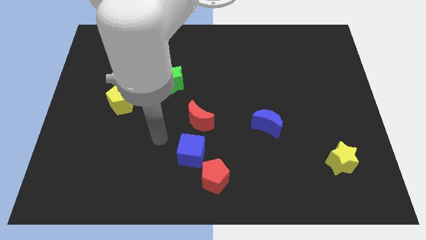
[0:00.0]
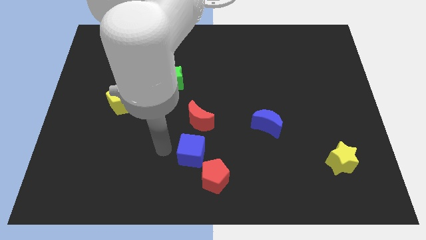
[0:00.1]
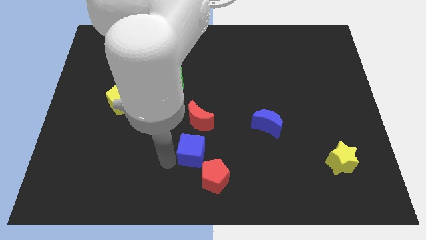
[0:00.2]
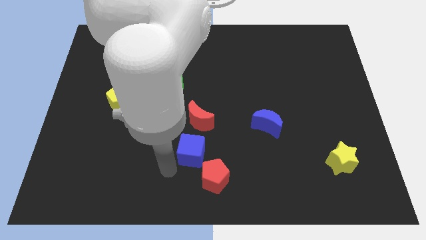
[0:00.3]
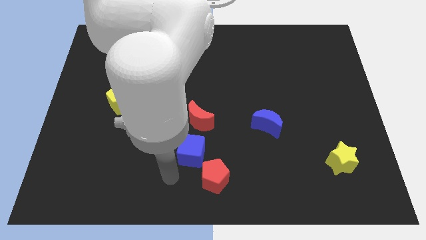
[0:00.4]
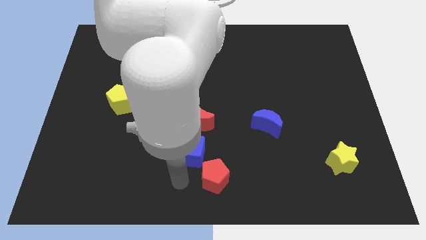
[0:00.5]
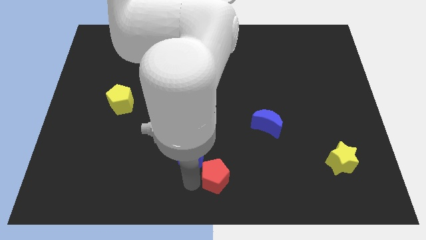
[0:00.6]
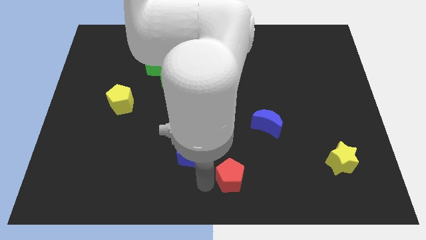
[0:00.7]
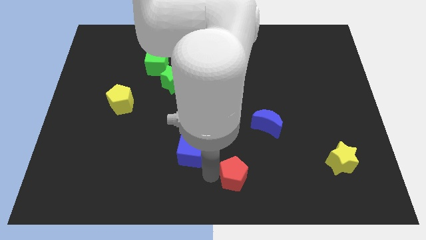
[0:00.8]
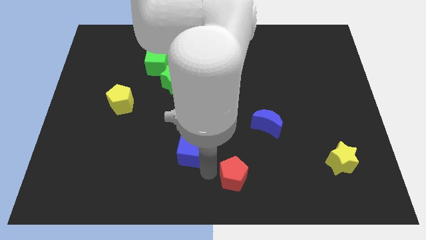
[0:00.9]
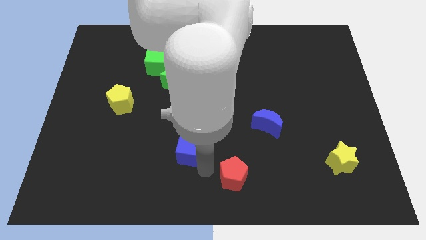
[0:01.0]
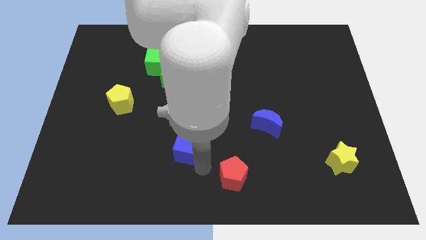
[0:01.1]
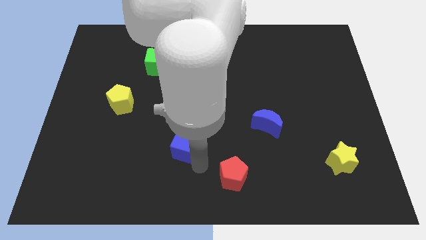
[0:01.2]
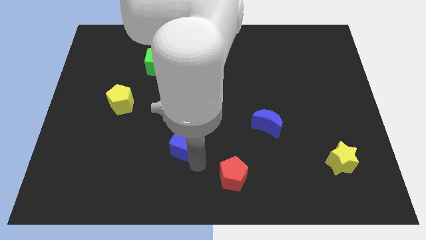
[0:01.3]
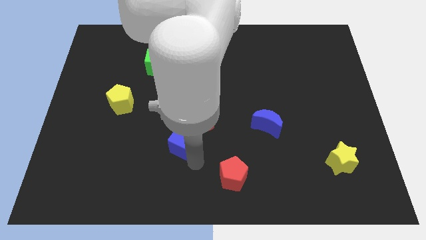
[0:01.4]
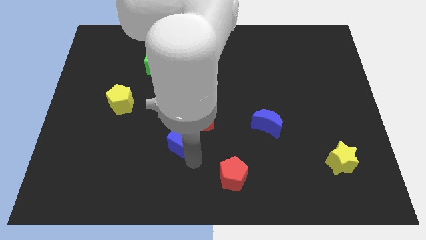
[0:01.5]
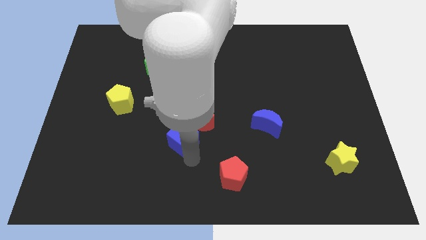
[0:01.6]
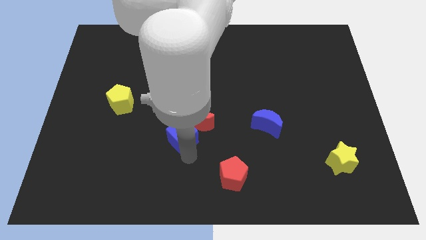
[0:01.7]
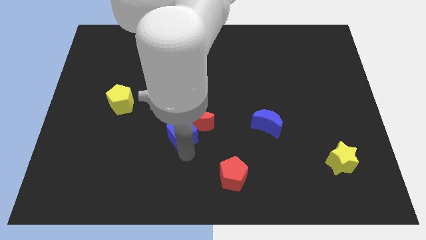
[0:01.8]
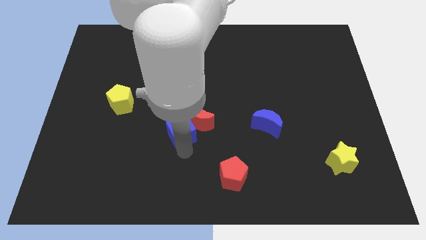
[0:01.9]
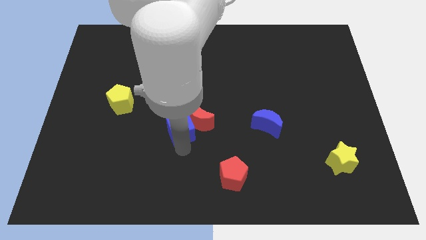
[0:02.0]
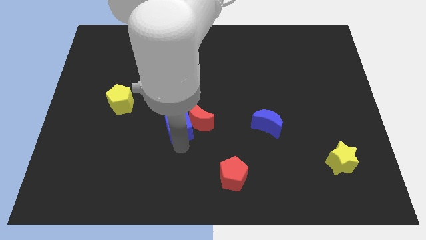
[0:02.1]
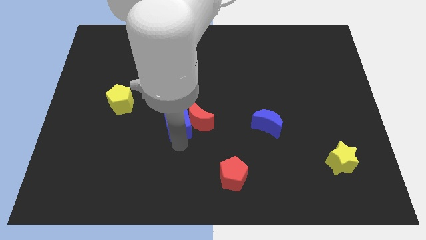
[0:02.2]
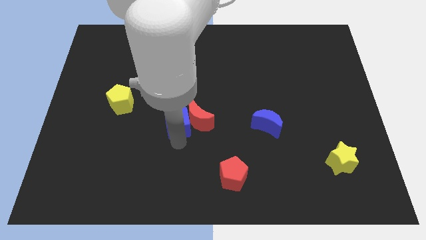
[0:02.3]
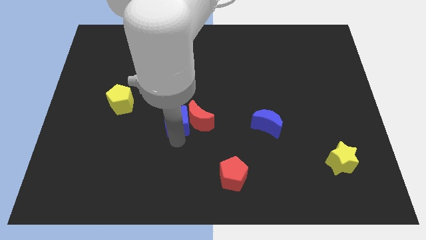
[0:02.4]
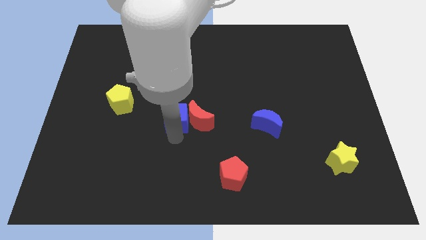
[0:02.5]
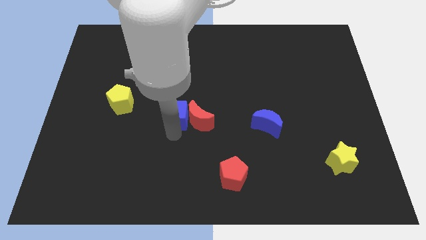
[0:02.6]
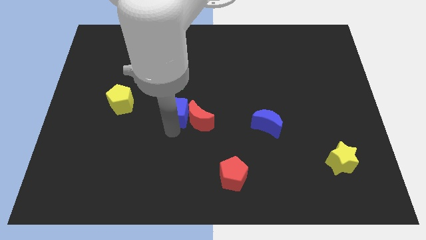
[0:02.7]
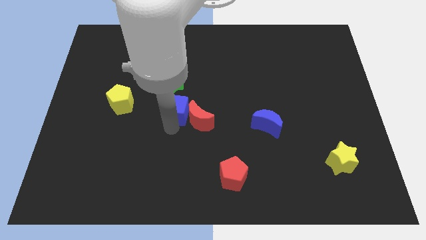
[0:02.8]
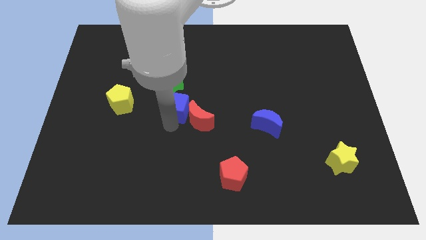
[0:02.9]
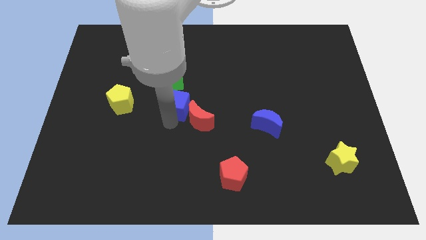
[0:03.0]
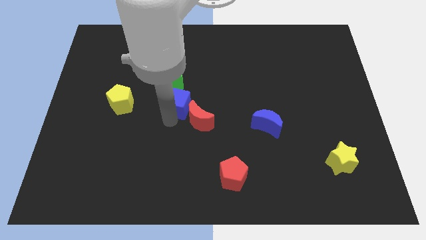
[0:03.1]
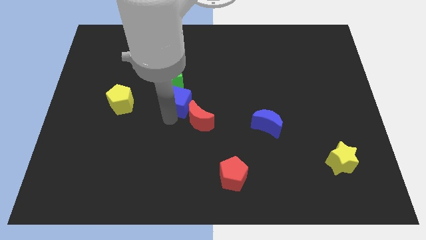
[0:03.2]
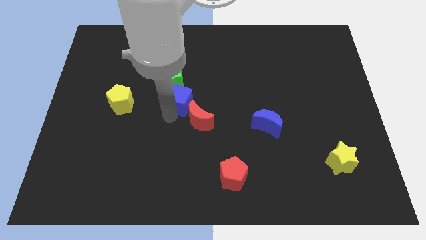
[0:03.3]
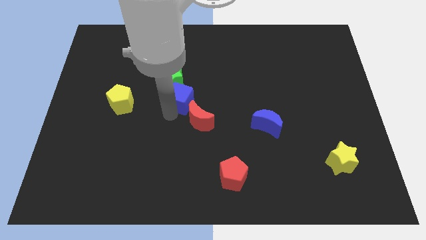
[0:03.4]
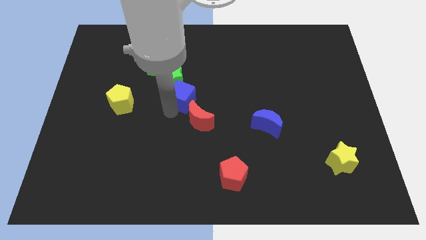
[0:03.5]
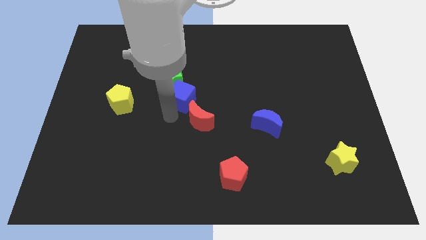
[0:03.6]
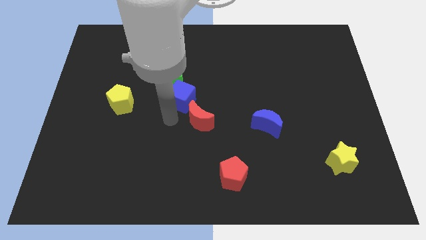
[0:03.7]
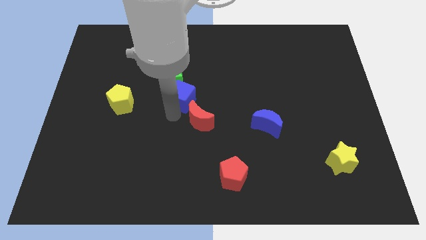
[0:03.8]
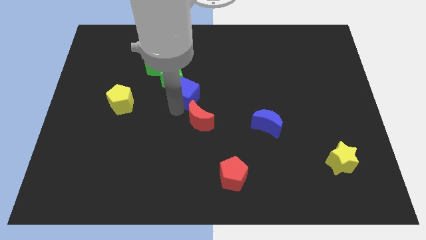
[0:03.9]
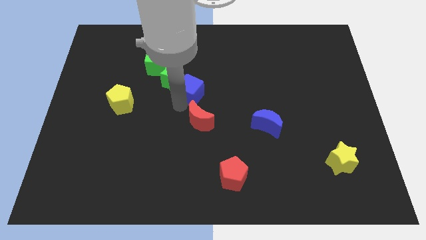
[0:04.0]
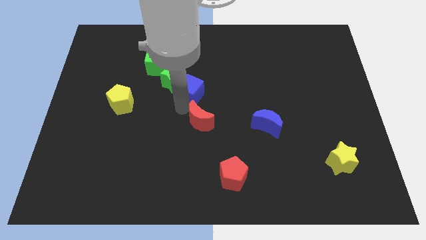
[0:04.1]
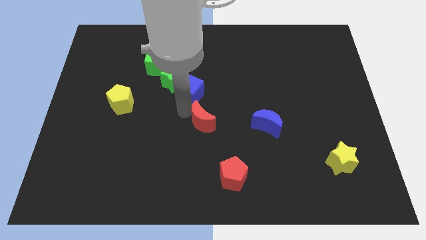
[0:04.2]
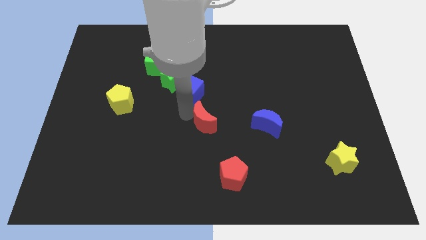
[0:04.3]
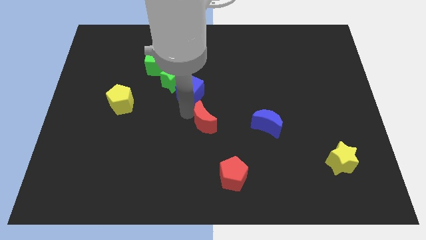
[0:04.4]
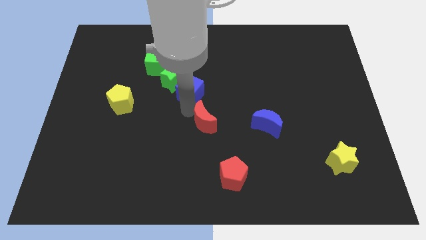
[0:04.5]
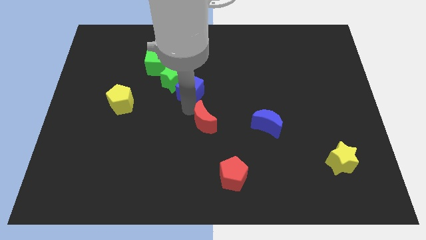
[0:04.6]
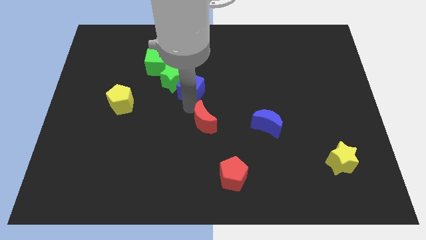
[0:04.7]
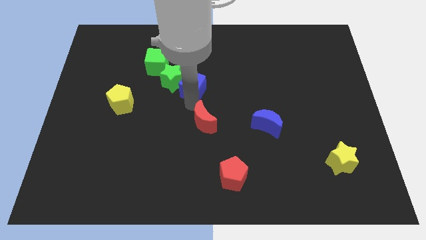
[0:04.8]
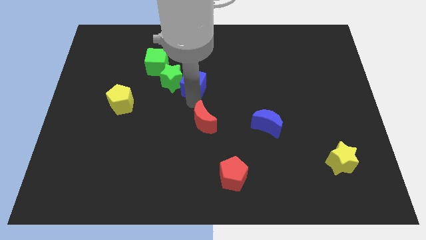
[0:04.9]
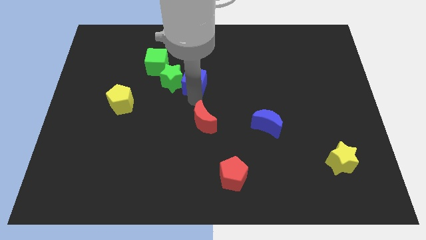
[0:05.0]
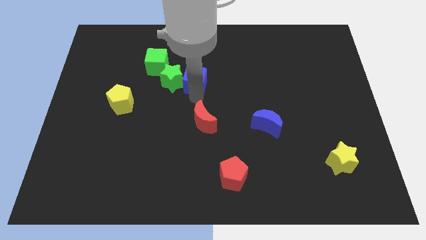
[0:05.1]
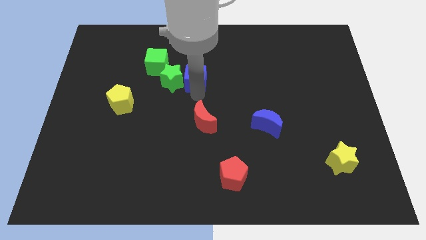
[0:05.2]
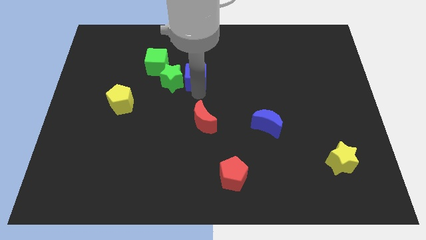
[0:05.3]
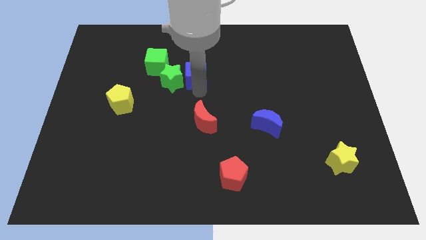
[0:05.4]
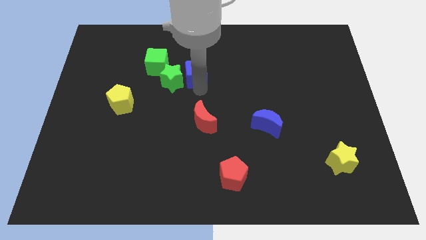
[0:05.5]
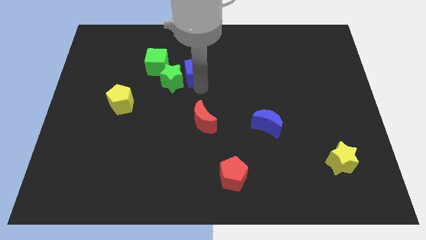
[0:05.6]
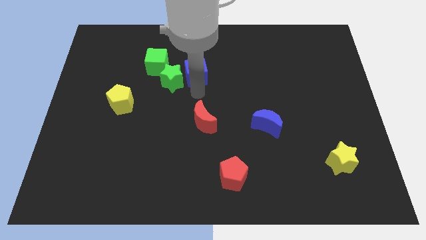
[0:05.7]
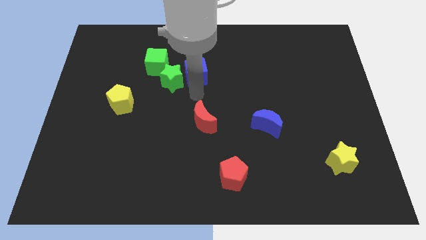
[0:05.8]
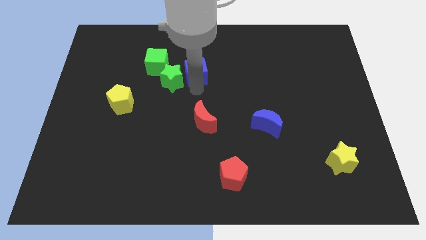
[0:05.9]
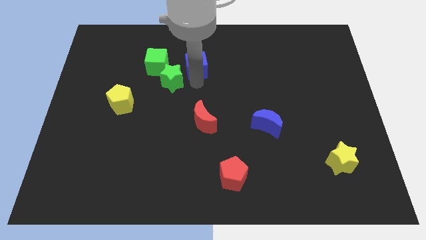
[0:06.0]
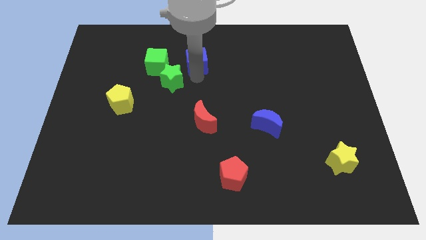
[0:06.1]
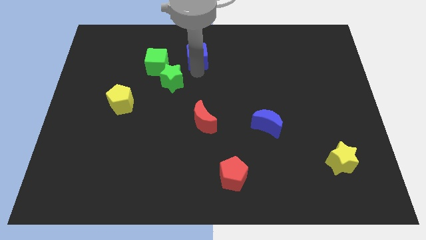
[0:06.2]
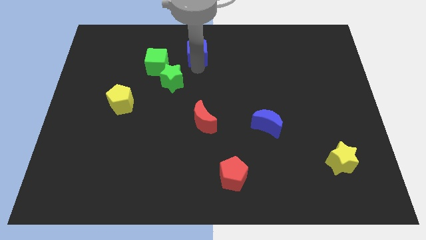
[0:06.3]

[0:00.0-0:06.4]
move the blue cube to the towards your base
